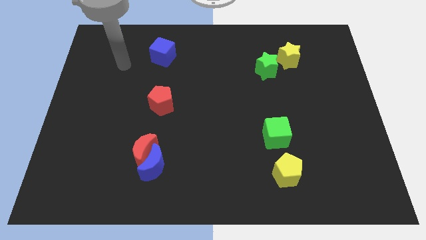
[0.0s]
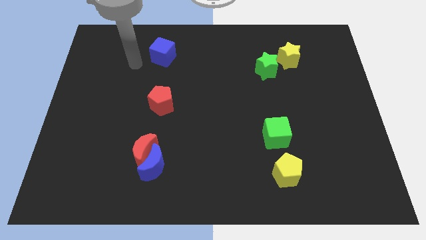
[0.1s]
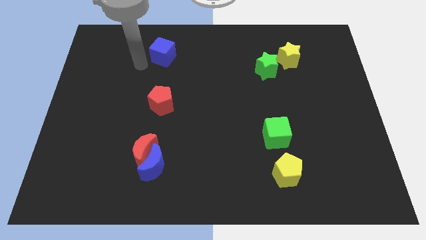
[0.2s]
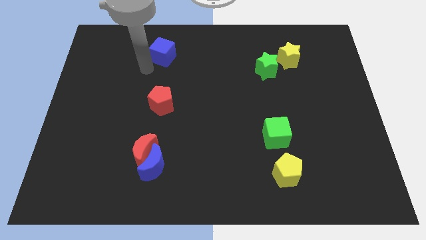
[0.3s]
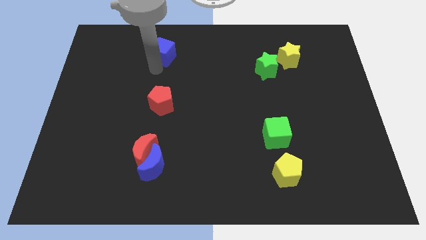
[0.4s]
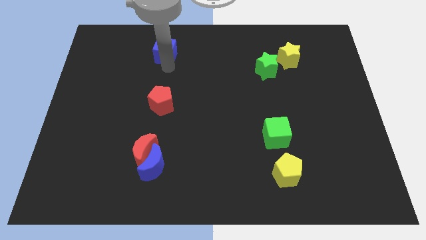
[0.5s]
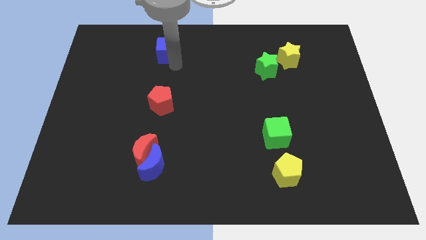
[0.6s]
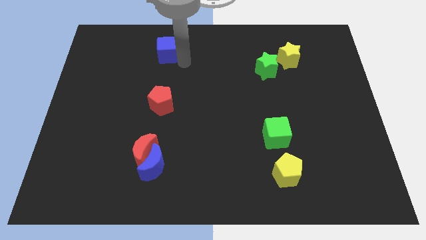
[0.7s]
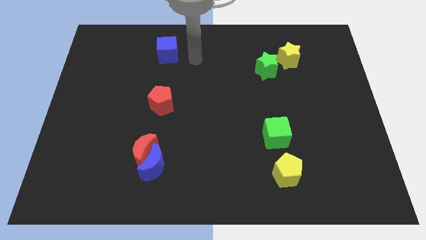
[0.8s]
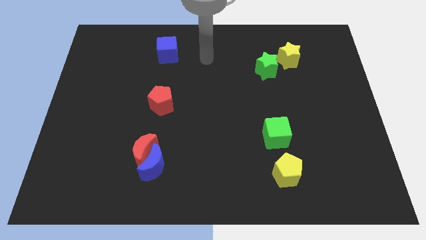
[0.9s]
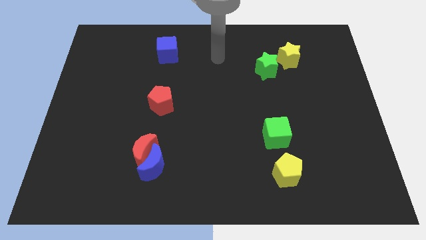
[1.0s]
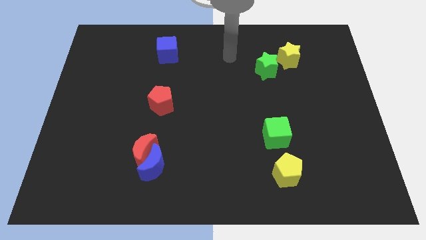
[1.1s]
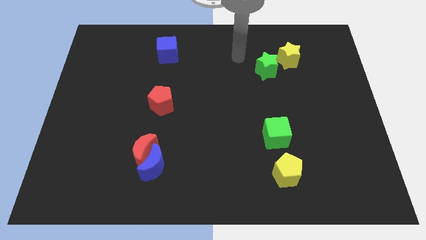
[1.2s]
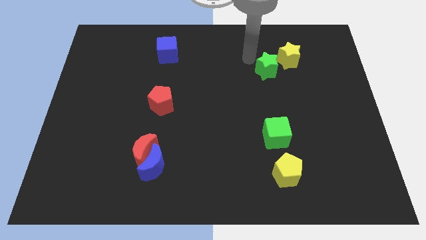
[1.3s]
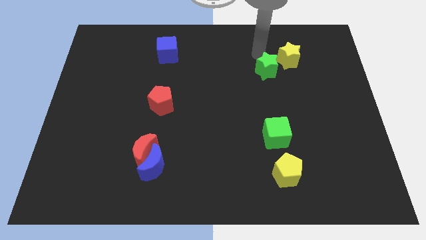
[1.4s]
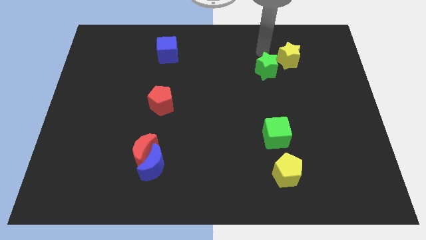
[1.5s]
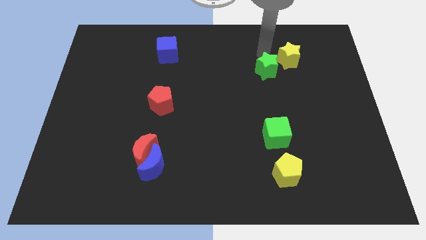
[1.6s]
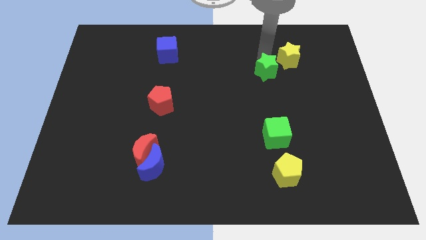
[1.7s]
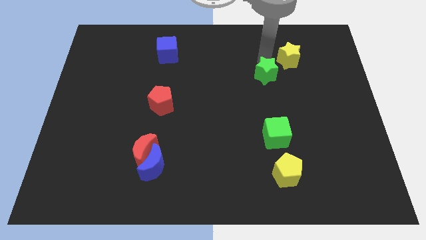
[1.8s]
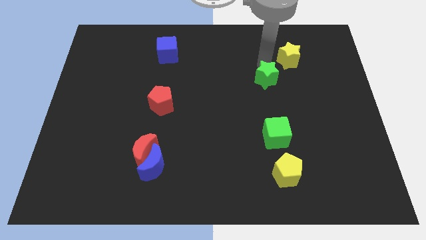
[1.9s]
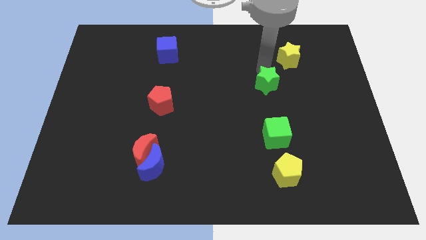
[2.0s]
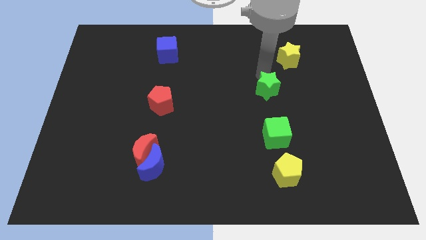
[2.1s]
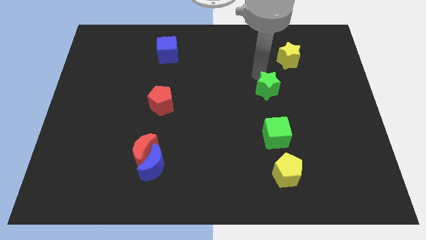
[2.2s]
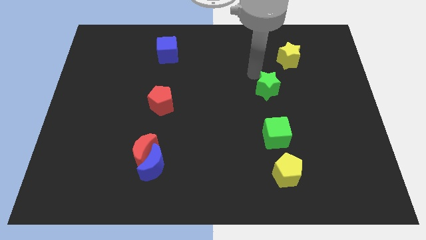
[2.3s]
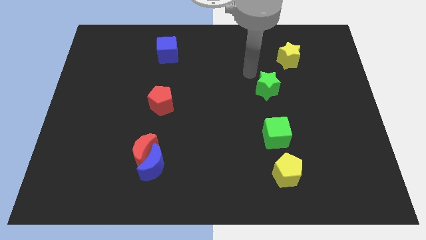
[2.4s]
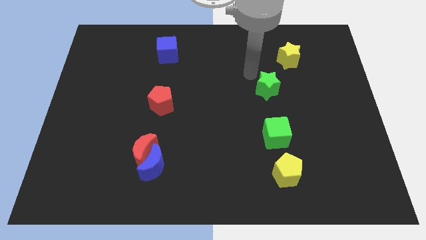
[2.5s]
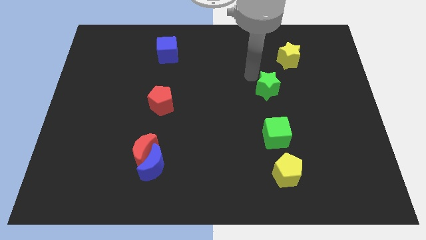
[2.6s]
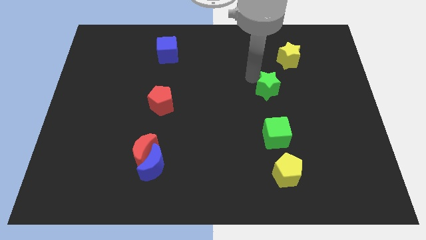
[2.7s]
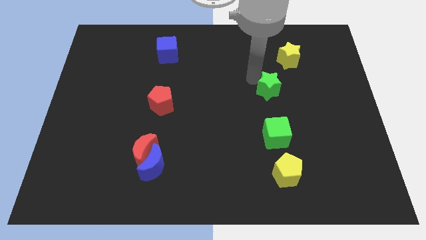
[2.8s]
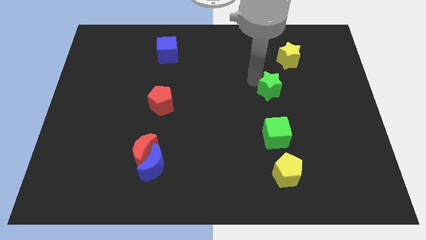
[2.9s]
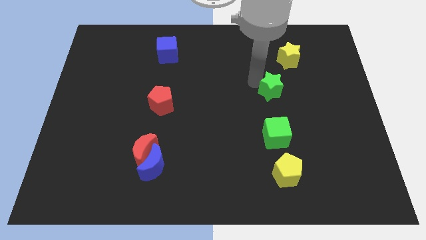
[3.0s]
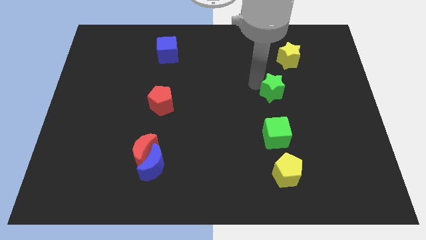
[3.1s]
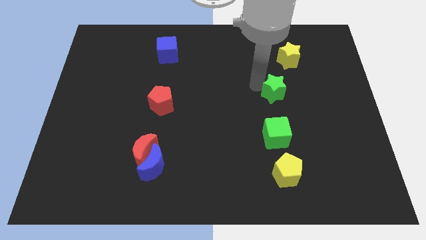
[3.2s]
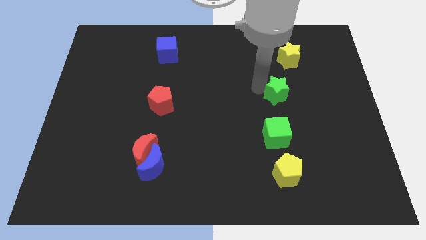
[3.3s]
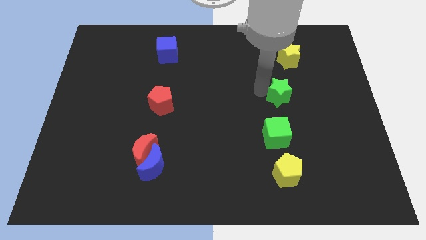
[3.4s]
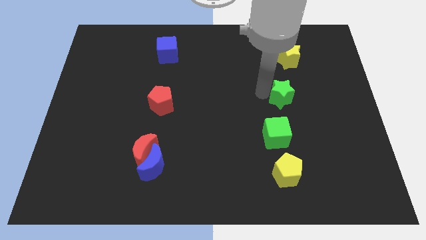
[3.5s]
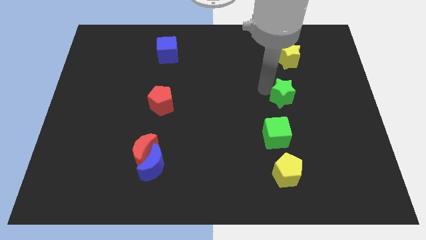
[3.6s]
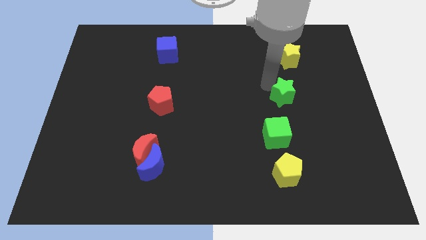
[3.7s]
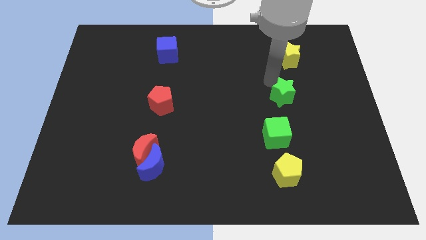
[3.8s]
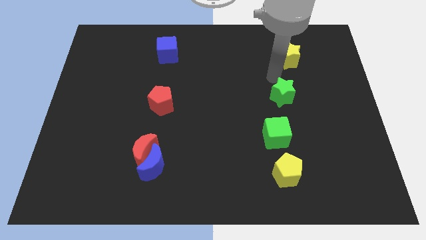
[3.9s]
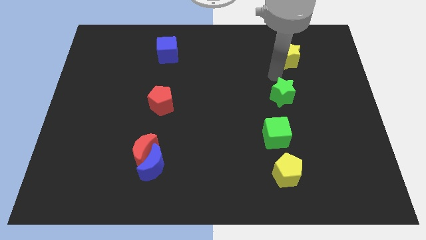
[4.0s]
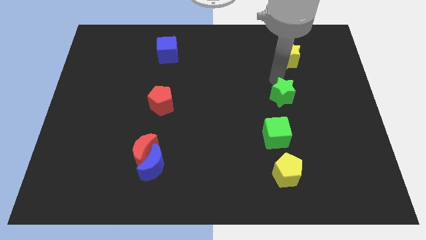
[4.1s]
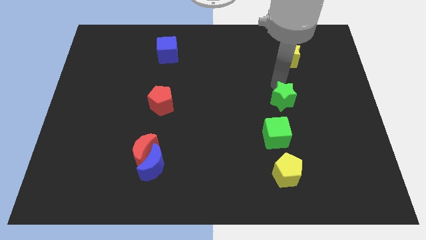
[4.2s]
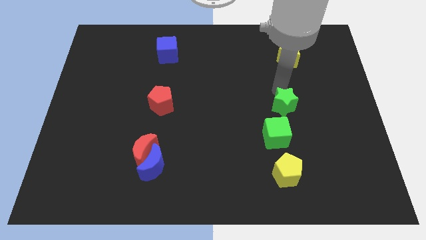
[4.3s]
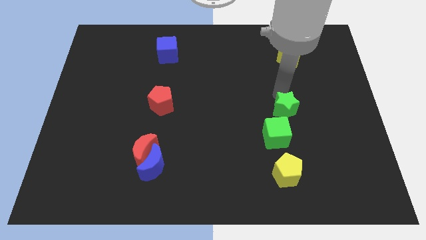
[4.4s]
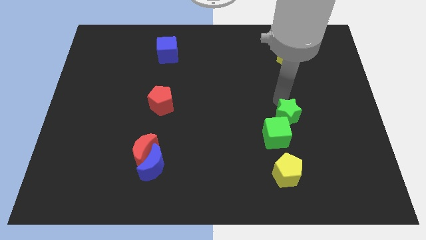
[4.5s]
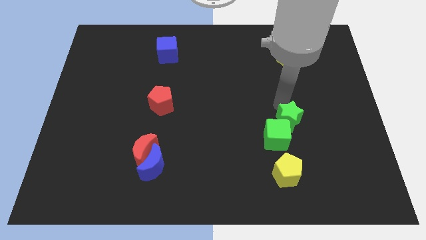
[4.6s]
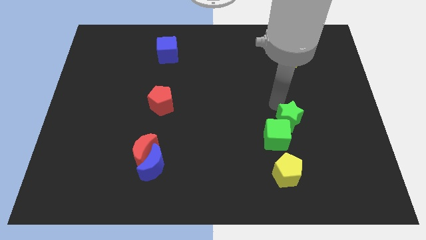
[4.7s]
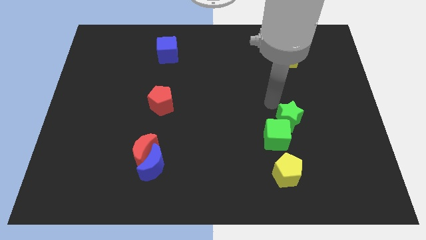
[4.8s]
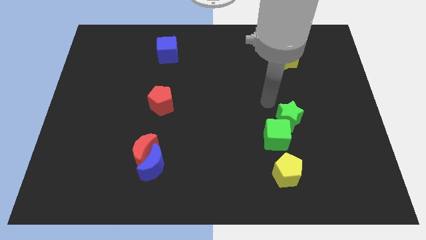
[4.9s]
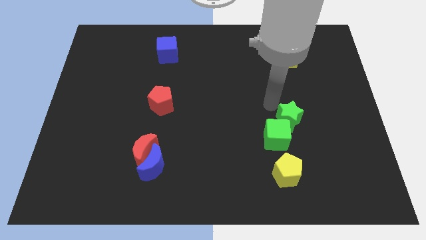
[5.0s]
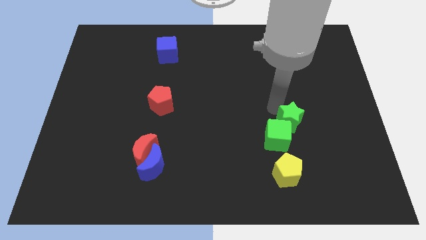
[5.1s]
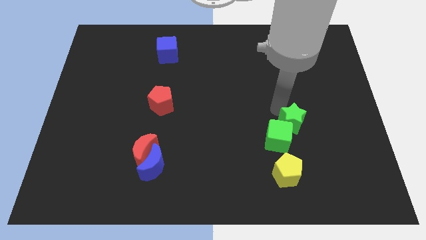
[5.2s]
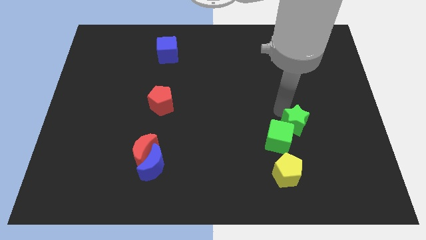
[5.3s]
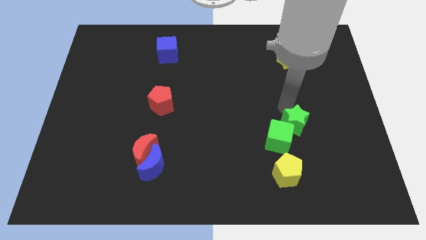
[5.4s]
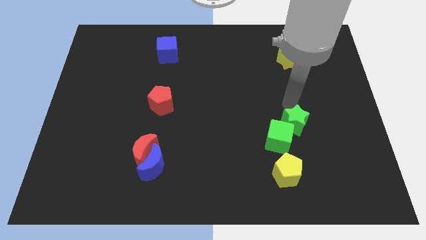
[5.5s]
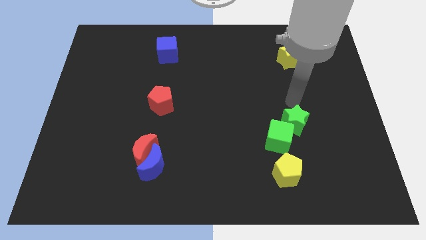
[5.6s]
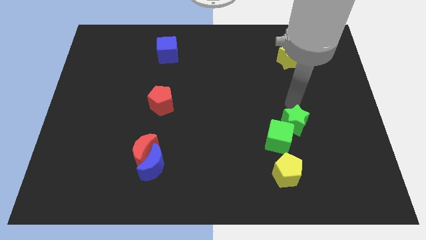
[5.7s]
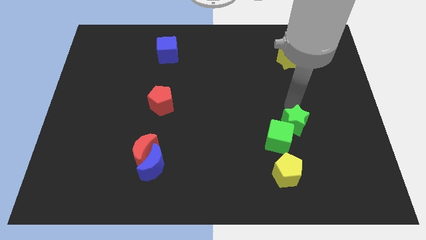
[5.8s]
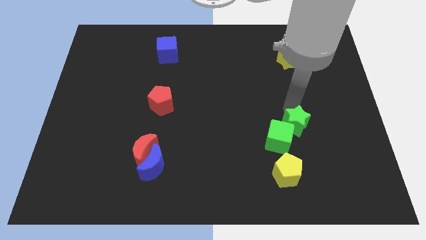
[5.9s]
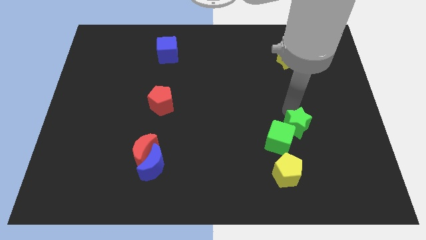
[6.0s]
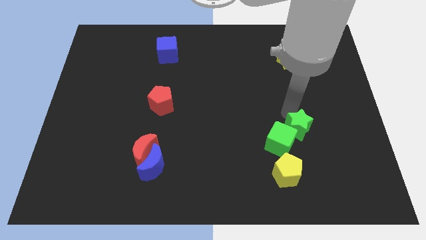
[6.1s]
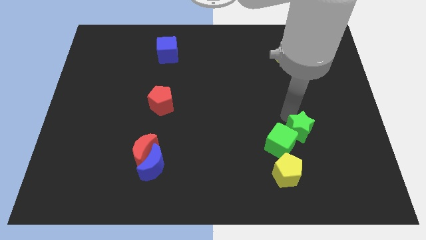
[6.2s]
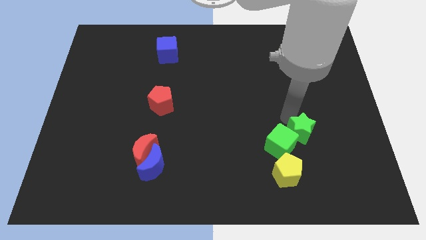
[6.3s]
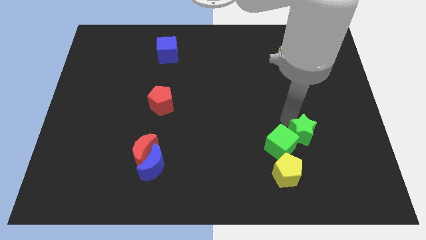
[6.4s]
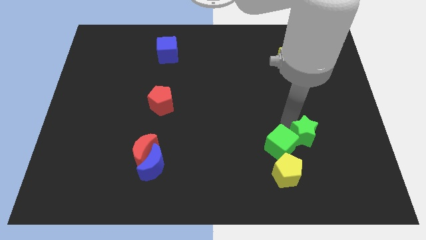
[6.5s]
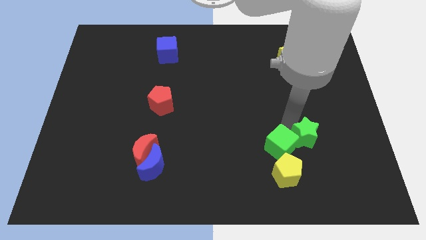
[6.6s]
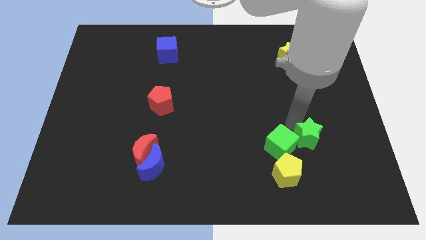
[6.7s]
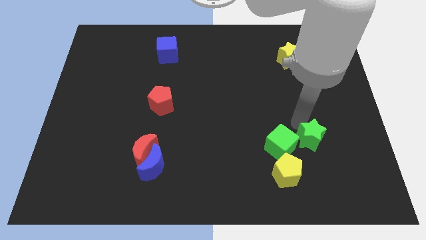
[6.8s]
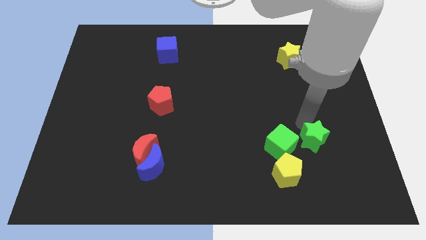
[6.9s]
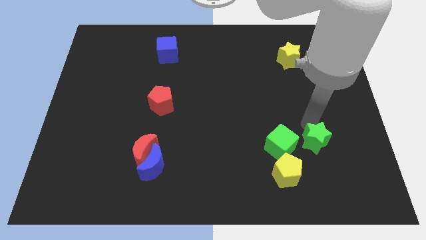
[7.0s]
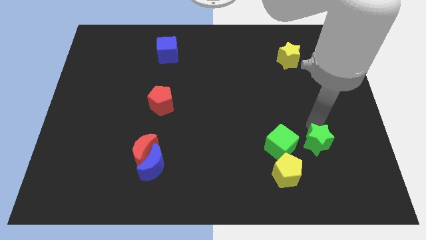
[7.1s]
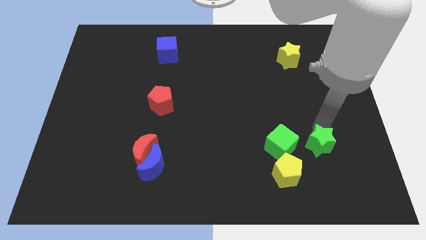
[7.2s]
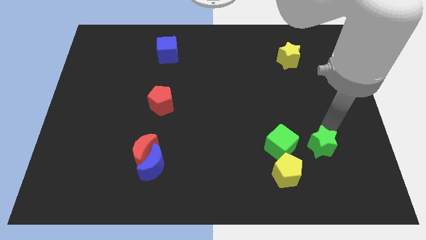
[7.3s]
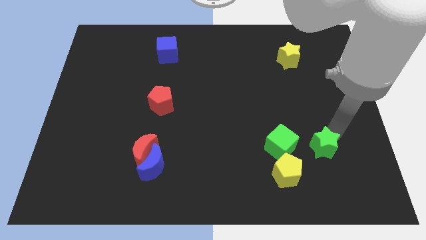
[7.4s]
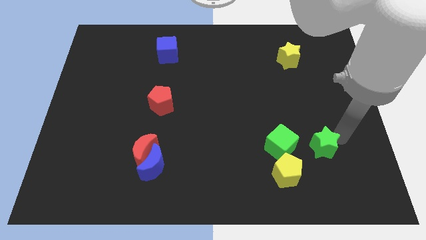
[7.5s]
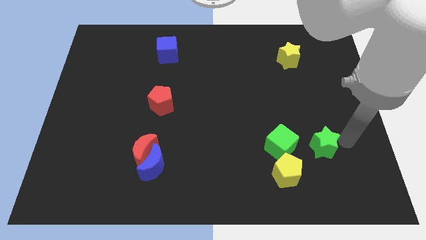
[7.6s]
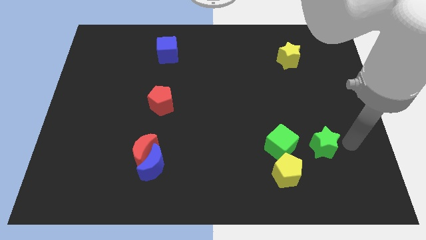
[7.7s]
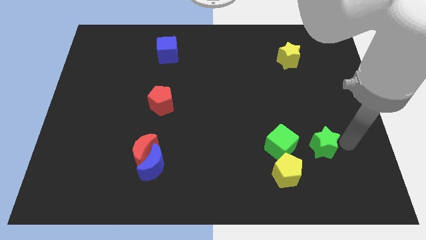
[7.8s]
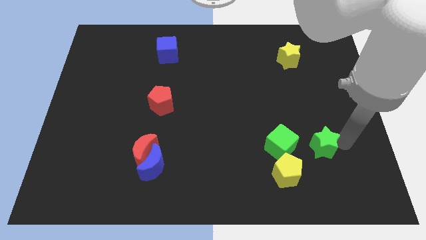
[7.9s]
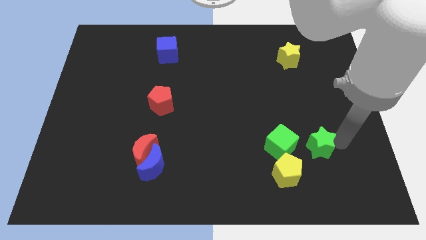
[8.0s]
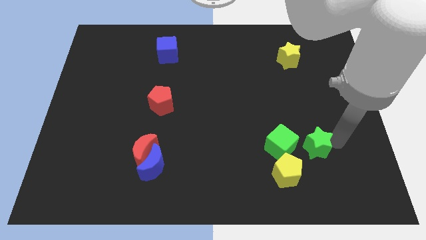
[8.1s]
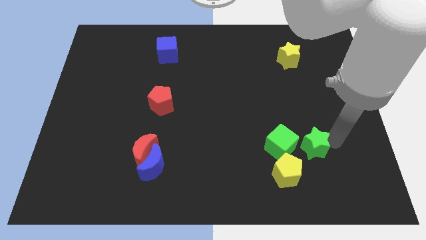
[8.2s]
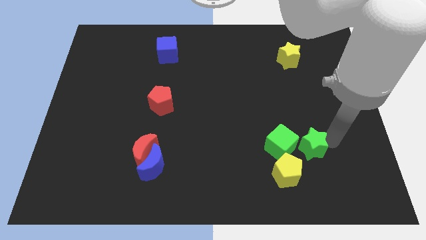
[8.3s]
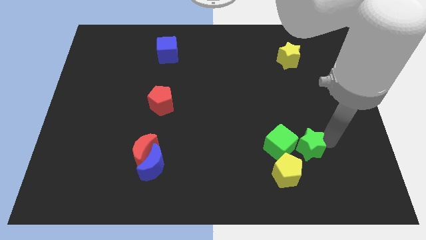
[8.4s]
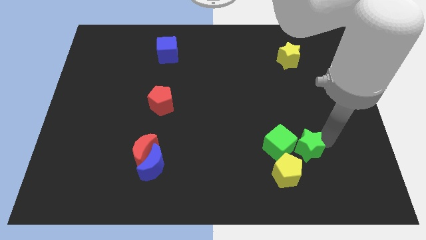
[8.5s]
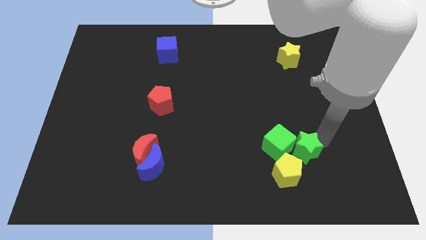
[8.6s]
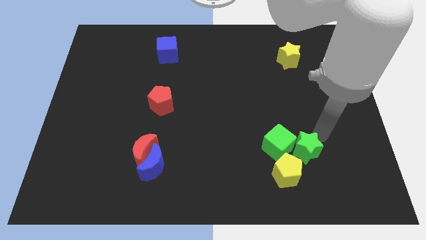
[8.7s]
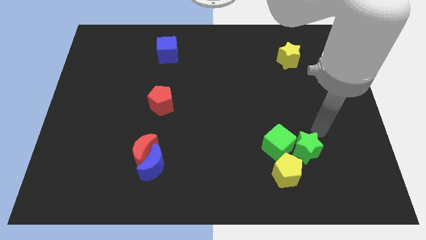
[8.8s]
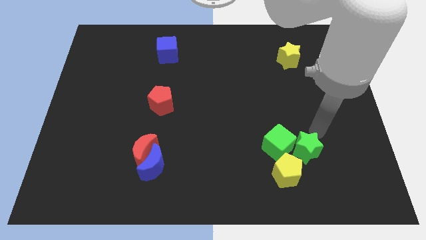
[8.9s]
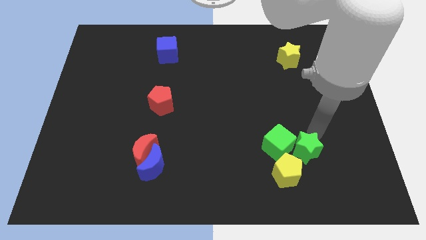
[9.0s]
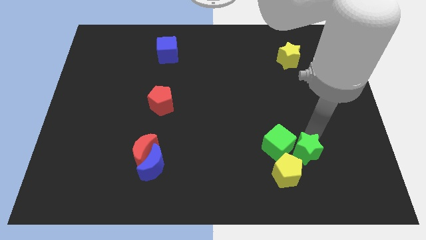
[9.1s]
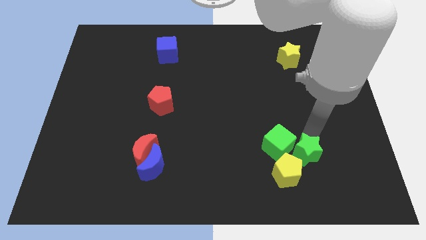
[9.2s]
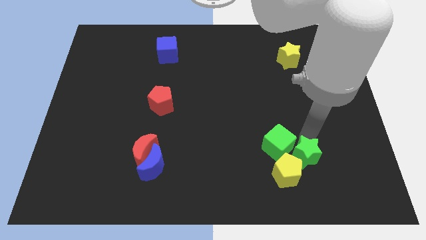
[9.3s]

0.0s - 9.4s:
put the green star next to the yellow pentagon
